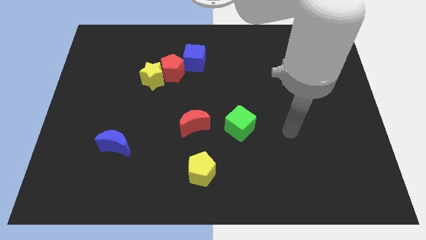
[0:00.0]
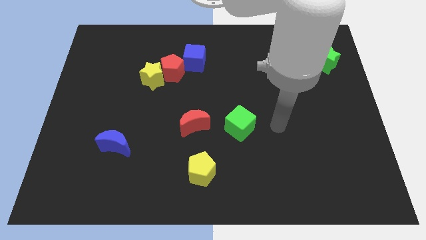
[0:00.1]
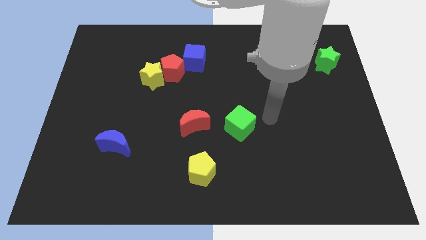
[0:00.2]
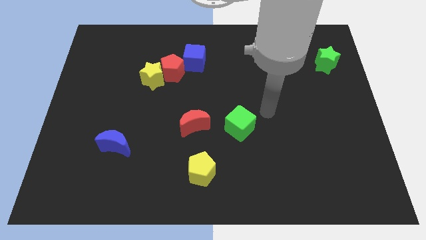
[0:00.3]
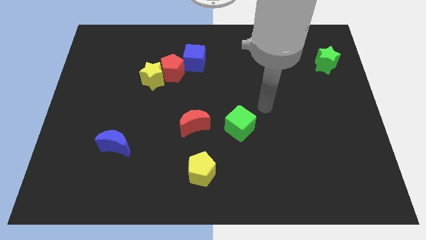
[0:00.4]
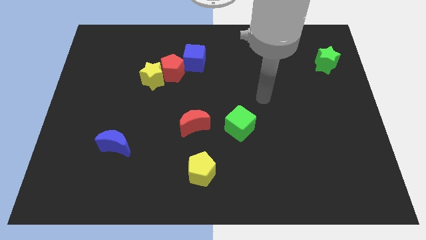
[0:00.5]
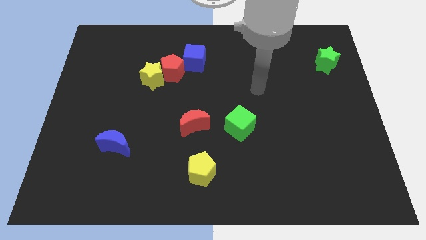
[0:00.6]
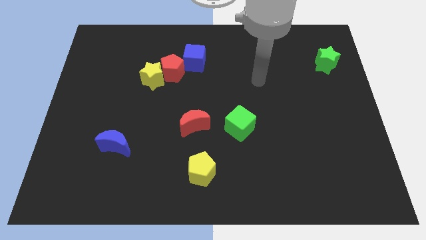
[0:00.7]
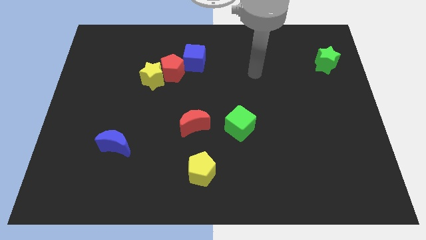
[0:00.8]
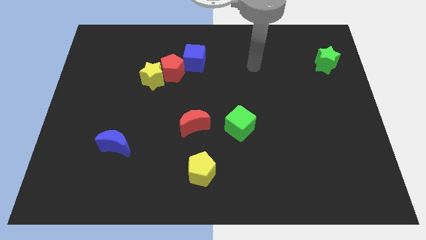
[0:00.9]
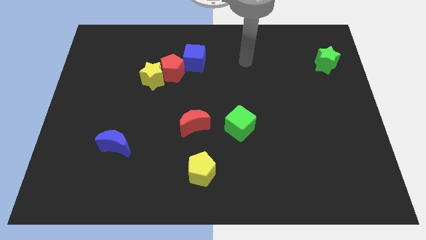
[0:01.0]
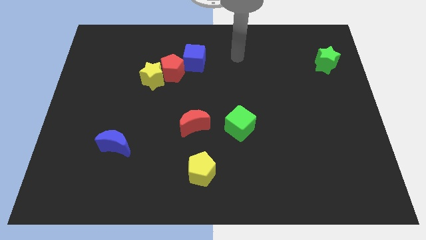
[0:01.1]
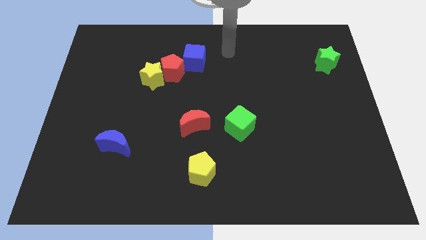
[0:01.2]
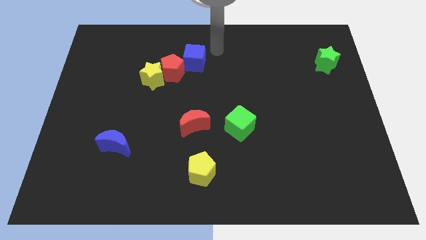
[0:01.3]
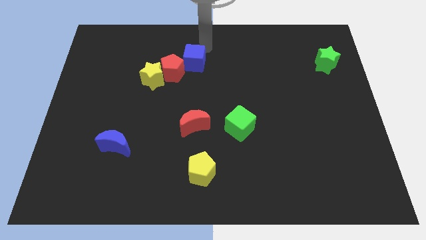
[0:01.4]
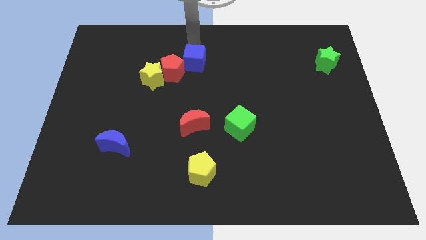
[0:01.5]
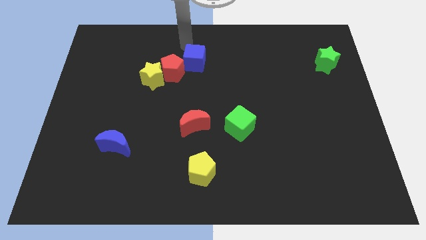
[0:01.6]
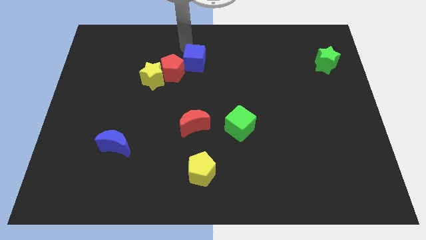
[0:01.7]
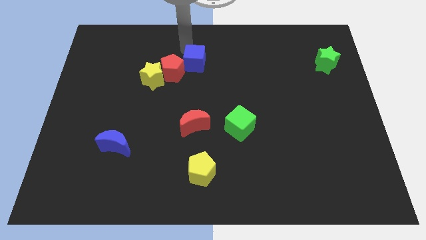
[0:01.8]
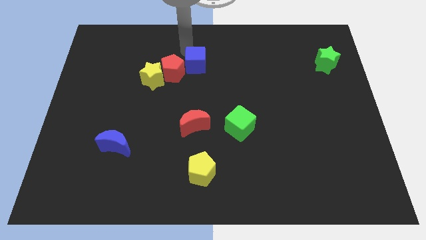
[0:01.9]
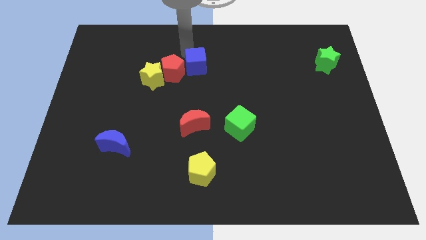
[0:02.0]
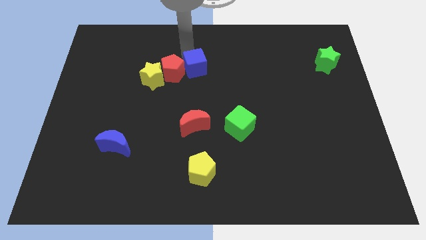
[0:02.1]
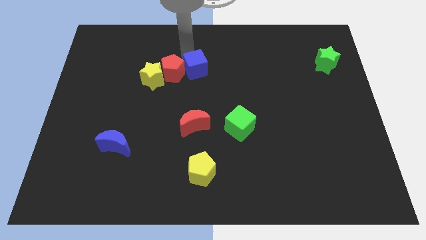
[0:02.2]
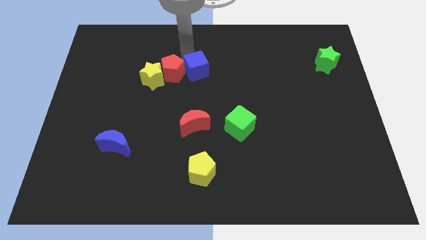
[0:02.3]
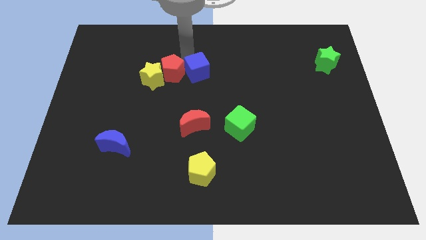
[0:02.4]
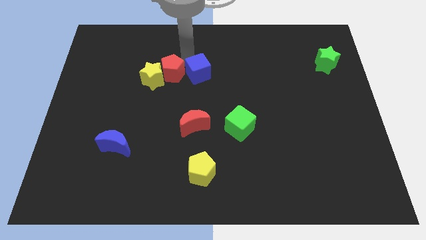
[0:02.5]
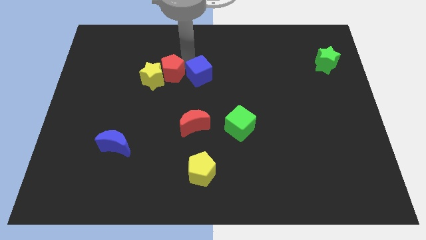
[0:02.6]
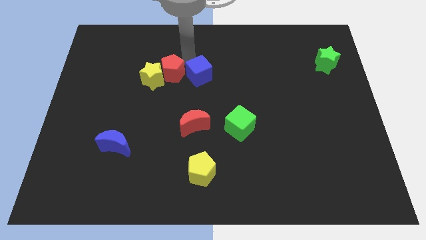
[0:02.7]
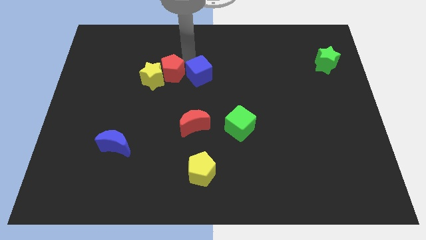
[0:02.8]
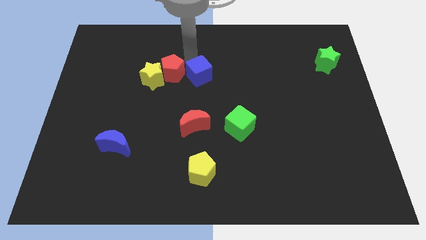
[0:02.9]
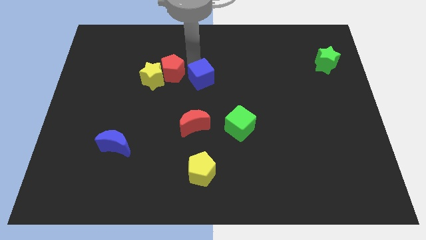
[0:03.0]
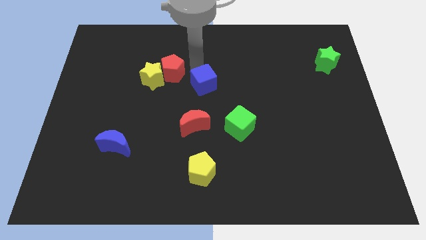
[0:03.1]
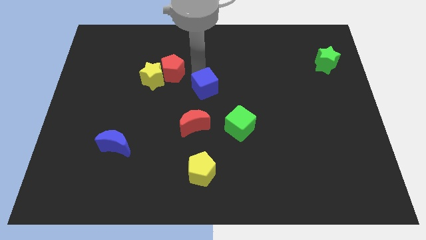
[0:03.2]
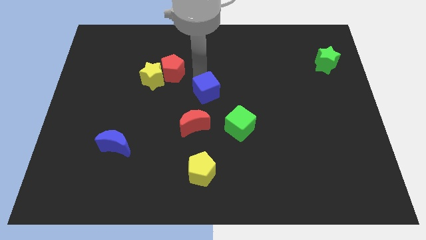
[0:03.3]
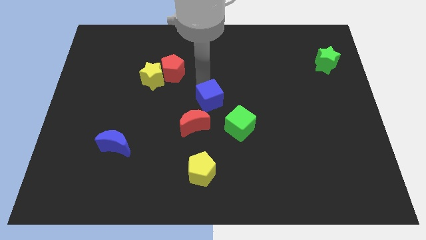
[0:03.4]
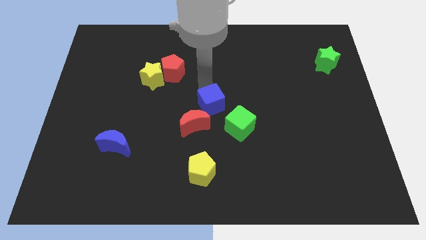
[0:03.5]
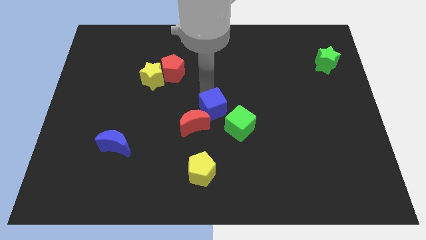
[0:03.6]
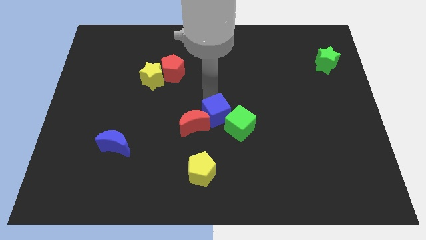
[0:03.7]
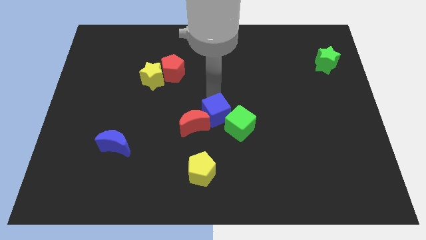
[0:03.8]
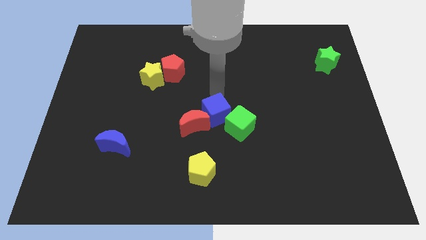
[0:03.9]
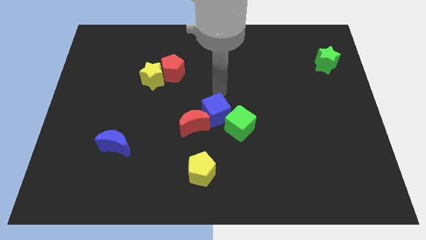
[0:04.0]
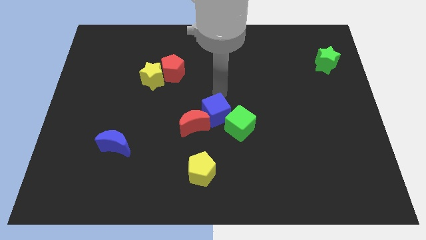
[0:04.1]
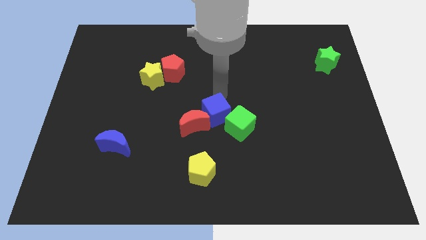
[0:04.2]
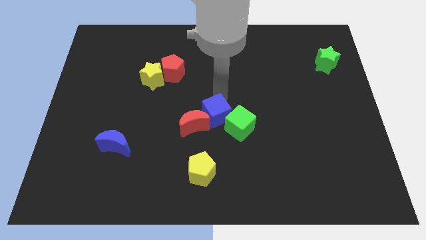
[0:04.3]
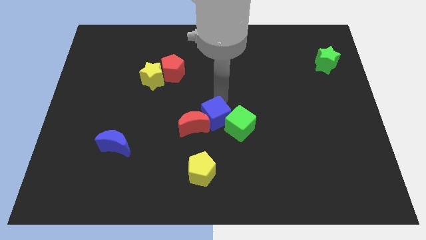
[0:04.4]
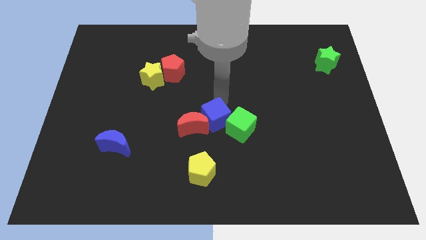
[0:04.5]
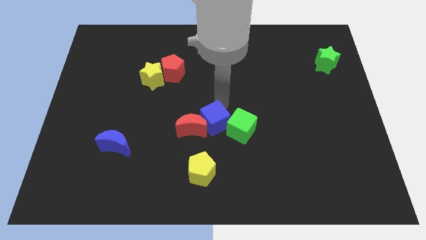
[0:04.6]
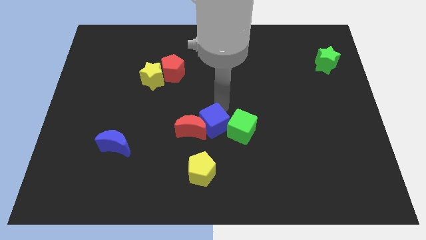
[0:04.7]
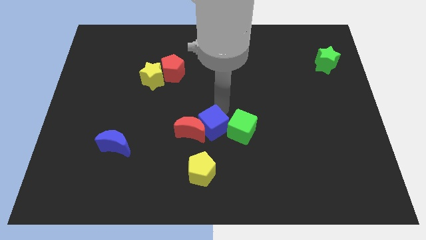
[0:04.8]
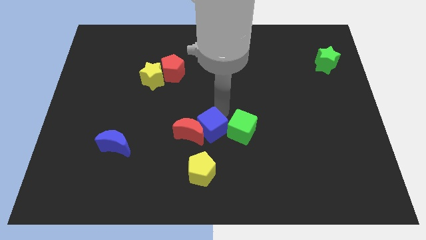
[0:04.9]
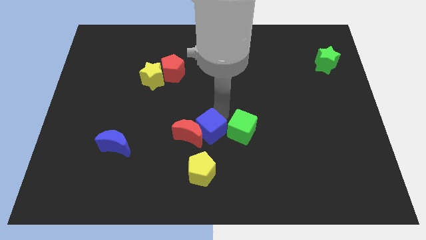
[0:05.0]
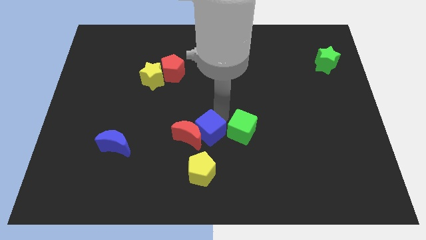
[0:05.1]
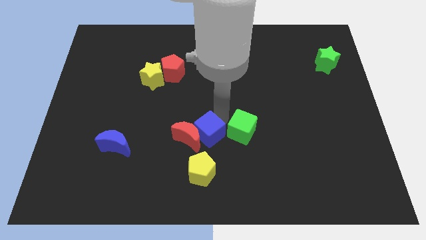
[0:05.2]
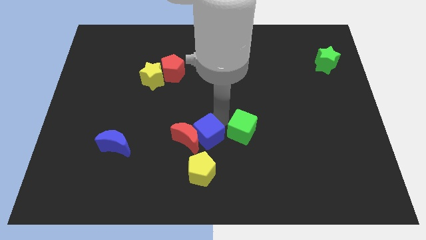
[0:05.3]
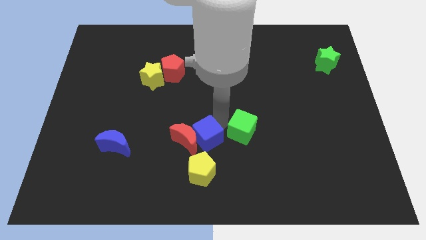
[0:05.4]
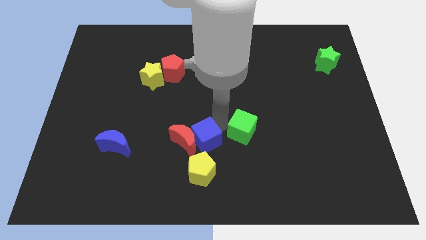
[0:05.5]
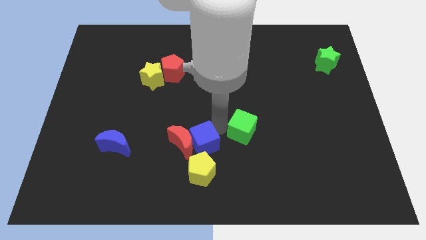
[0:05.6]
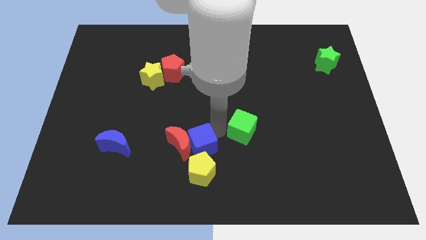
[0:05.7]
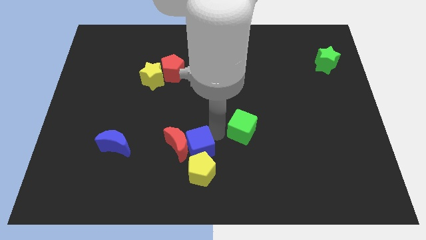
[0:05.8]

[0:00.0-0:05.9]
slide the blue cube next to the yellow pentagon

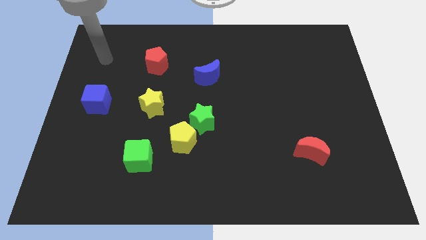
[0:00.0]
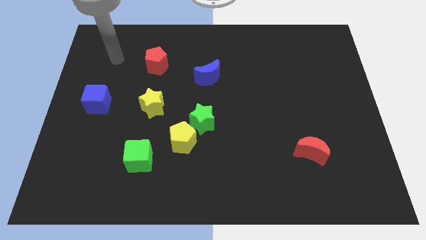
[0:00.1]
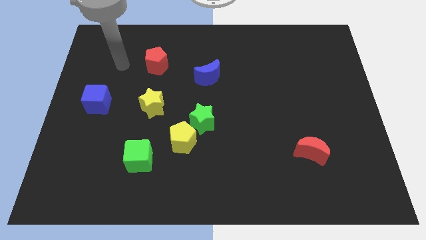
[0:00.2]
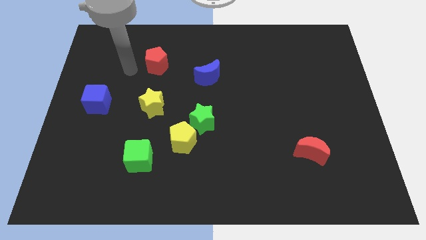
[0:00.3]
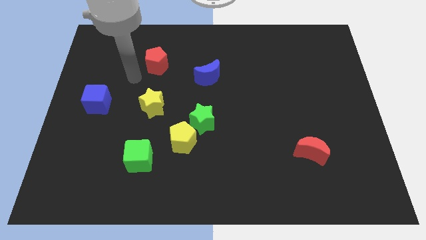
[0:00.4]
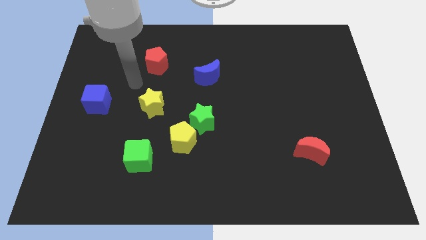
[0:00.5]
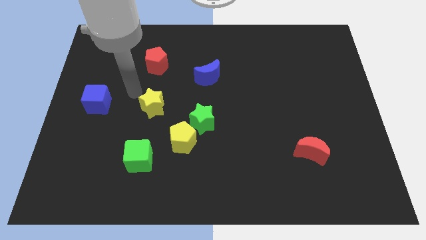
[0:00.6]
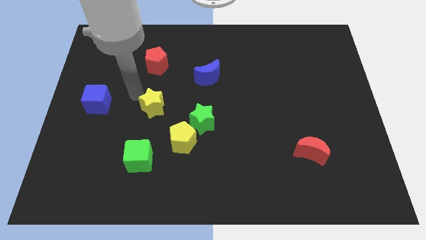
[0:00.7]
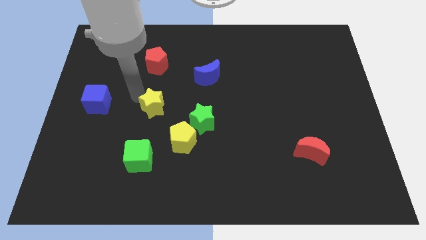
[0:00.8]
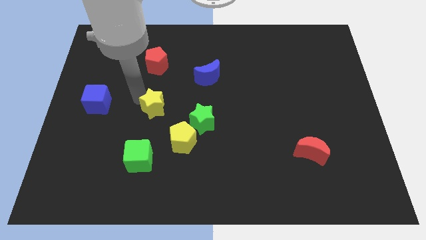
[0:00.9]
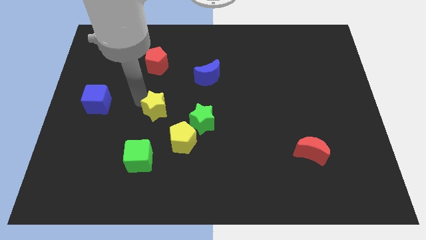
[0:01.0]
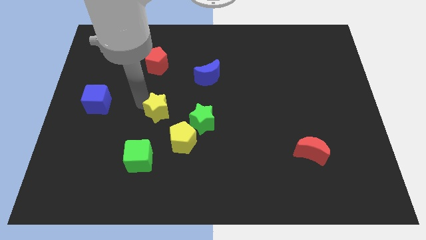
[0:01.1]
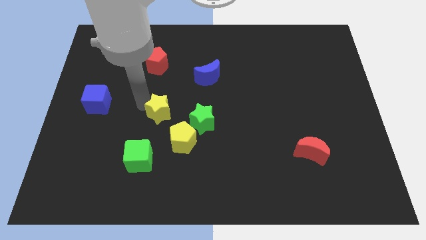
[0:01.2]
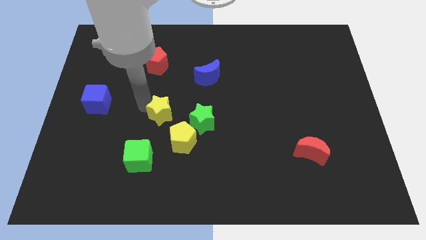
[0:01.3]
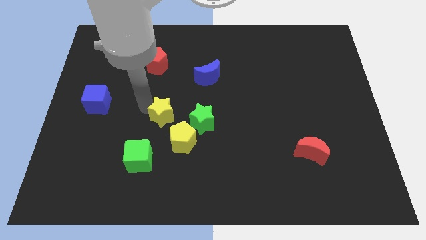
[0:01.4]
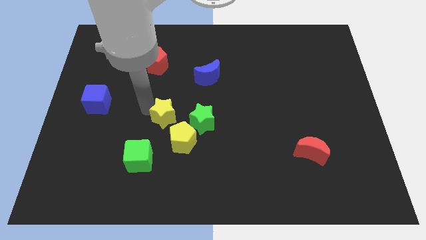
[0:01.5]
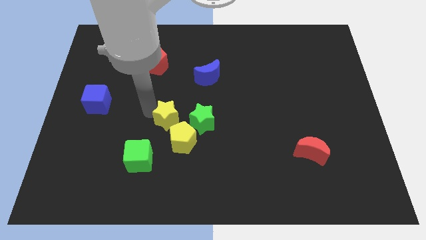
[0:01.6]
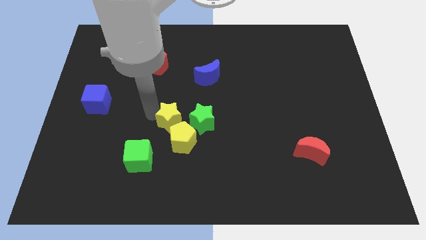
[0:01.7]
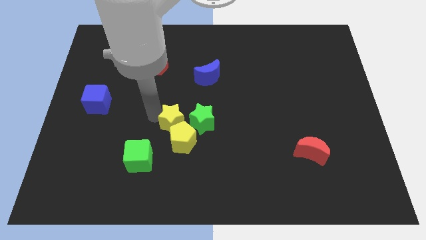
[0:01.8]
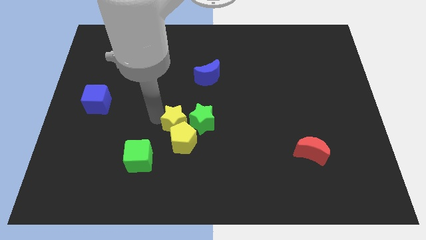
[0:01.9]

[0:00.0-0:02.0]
slide the yellow star towards the green star
